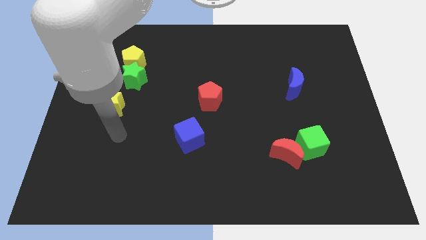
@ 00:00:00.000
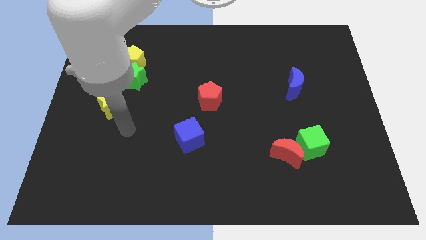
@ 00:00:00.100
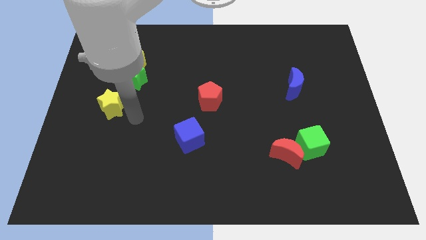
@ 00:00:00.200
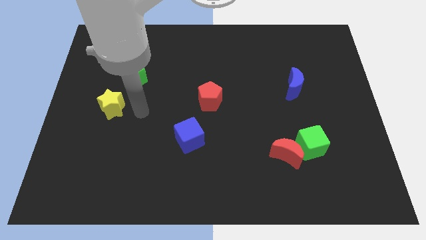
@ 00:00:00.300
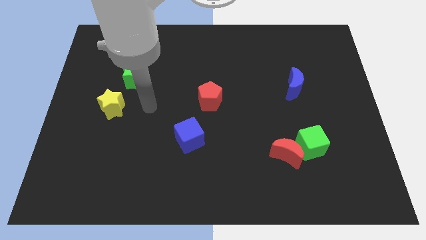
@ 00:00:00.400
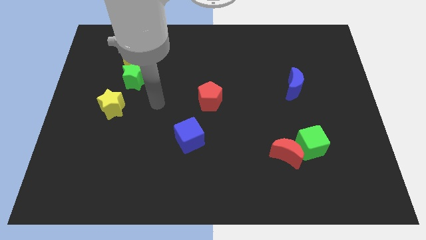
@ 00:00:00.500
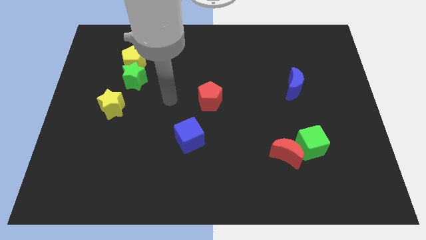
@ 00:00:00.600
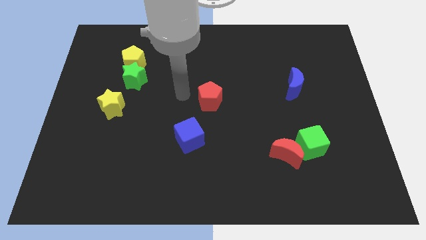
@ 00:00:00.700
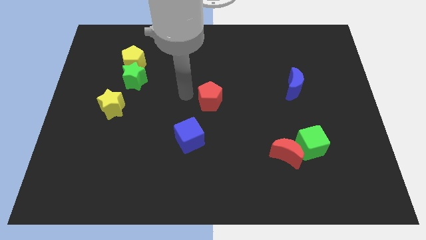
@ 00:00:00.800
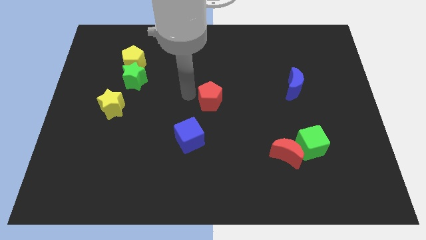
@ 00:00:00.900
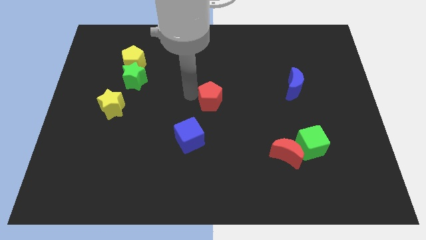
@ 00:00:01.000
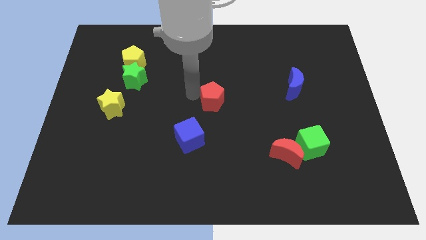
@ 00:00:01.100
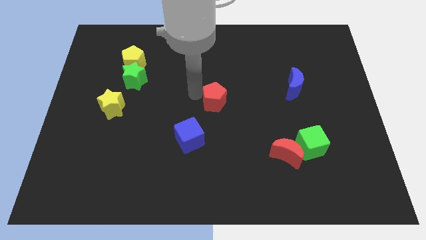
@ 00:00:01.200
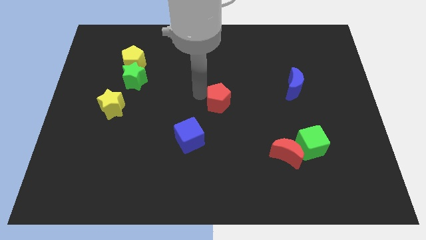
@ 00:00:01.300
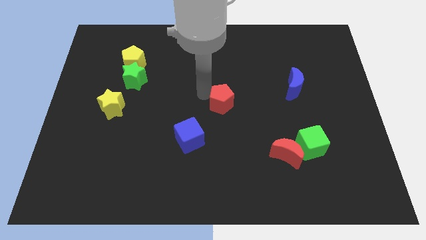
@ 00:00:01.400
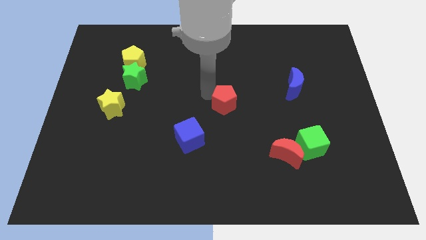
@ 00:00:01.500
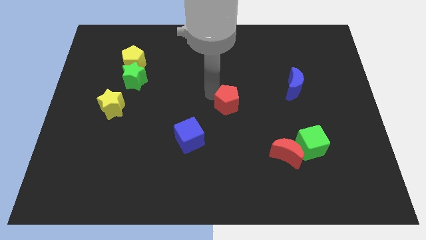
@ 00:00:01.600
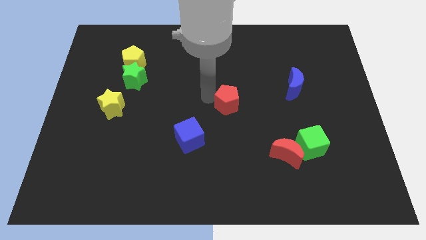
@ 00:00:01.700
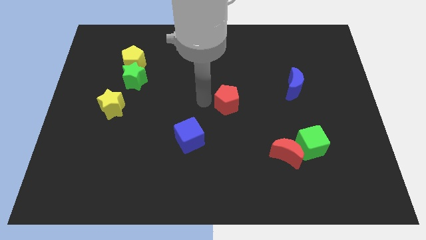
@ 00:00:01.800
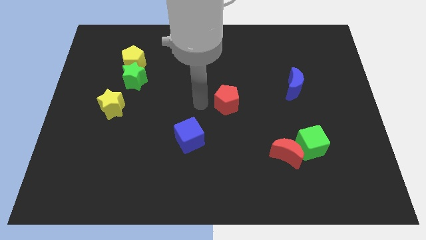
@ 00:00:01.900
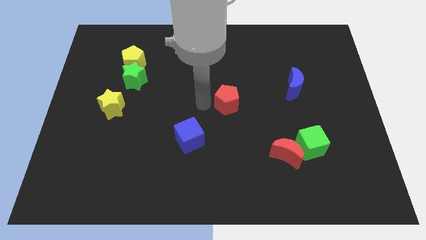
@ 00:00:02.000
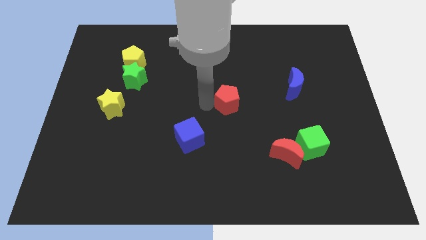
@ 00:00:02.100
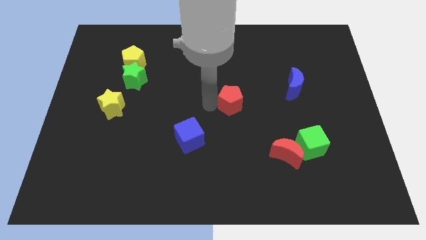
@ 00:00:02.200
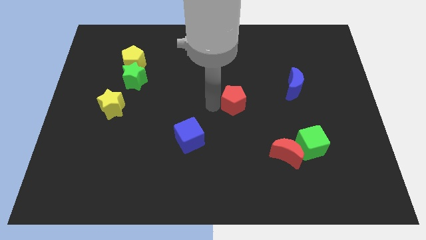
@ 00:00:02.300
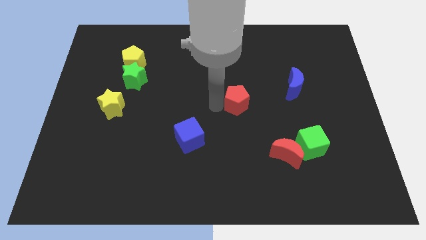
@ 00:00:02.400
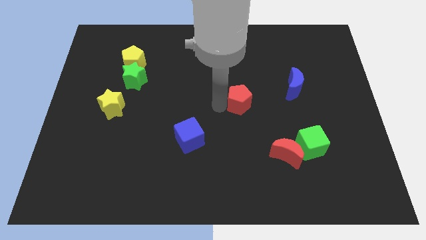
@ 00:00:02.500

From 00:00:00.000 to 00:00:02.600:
push the red pentagon a little bit to the right

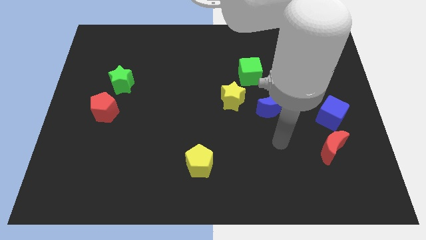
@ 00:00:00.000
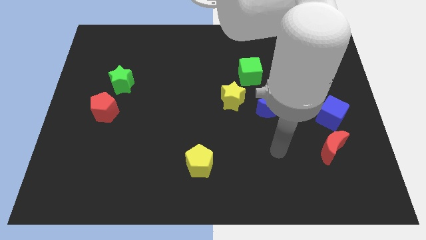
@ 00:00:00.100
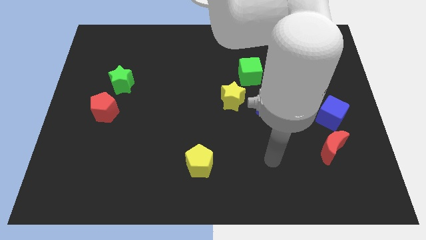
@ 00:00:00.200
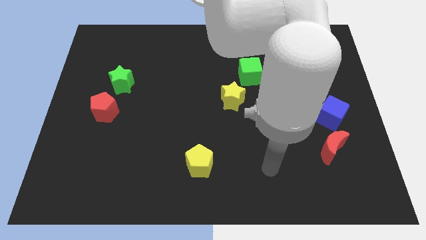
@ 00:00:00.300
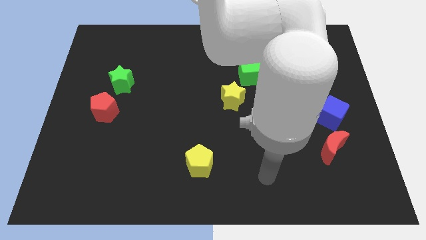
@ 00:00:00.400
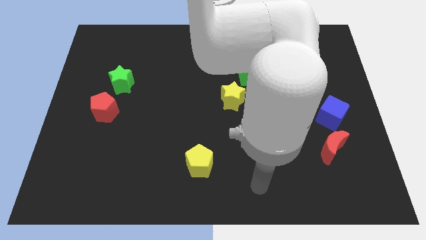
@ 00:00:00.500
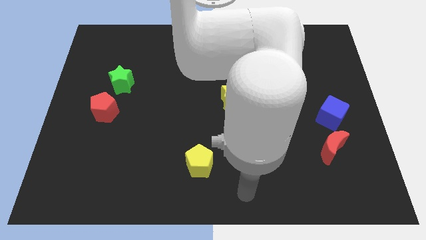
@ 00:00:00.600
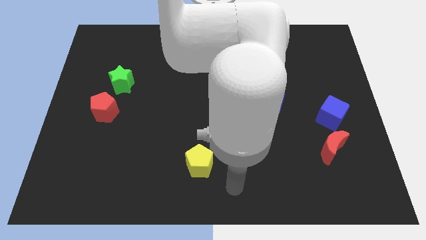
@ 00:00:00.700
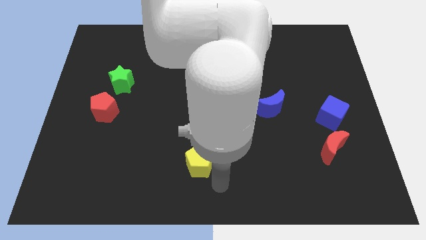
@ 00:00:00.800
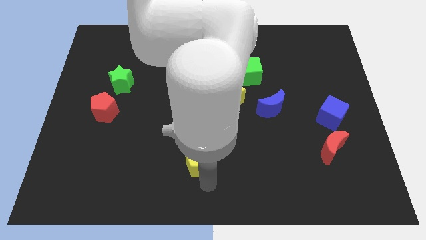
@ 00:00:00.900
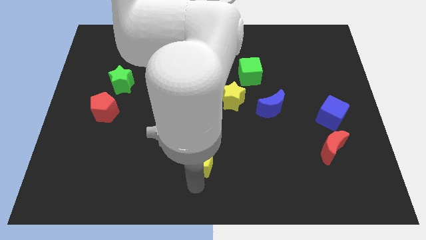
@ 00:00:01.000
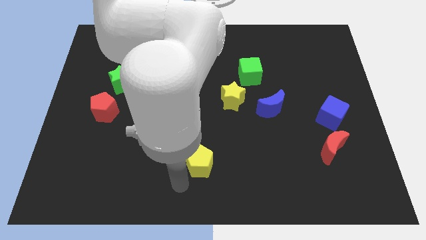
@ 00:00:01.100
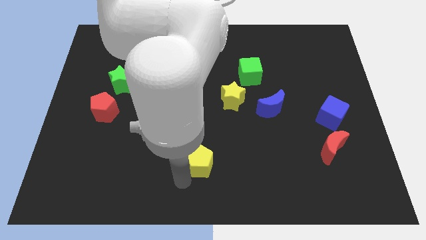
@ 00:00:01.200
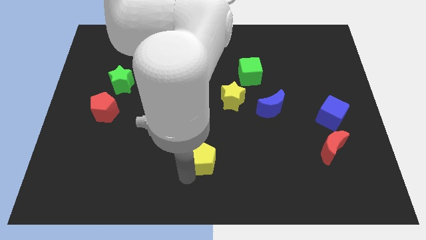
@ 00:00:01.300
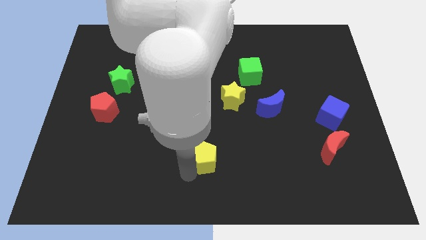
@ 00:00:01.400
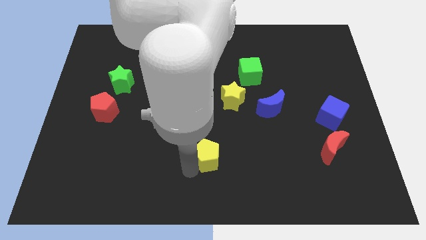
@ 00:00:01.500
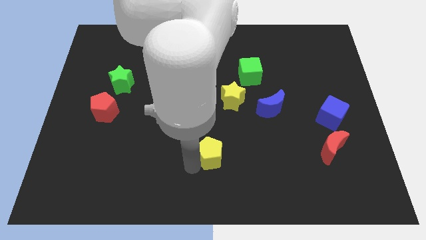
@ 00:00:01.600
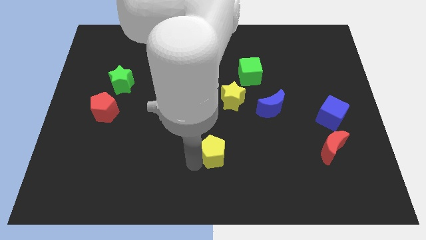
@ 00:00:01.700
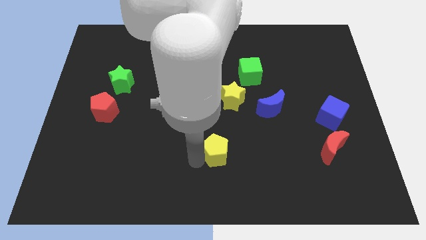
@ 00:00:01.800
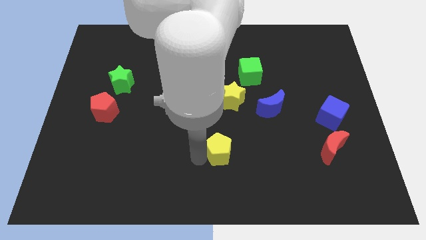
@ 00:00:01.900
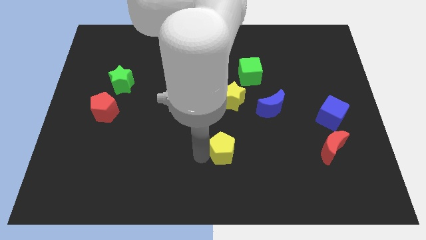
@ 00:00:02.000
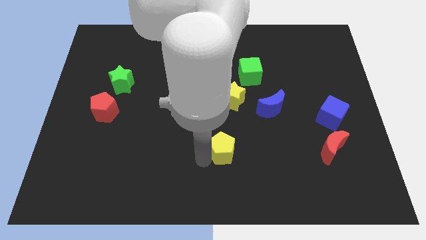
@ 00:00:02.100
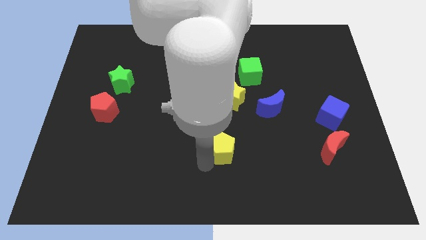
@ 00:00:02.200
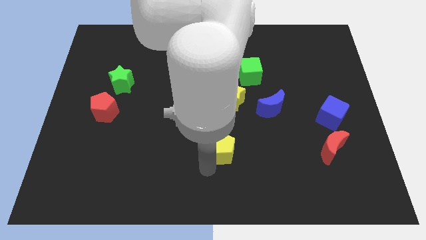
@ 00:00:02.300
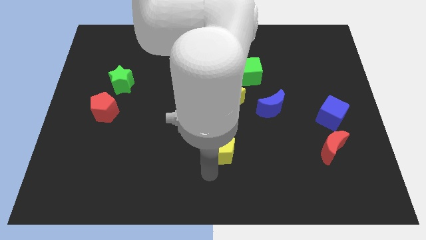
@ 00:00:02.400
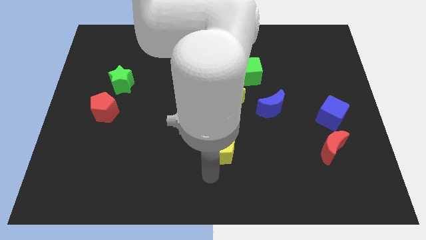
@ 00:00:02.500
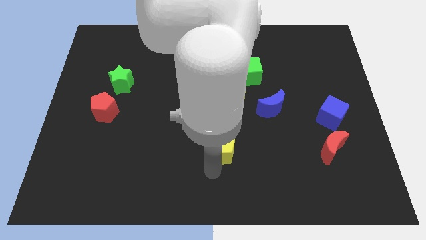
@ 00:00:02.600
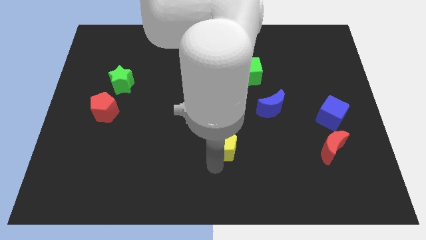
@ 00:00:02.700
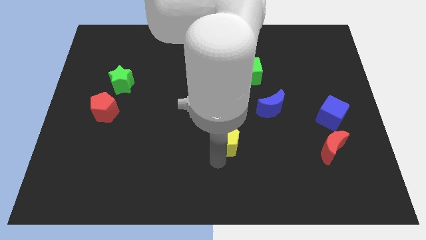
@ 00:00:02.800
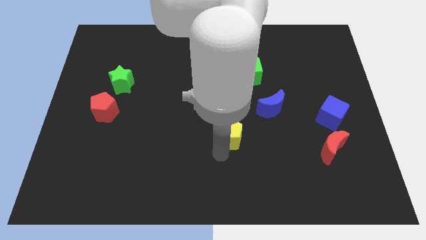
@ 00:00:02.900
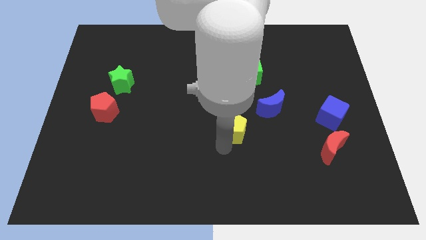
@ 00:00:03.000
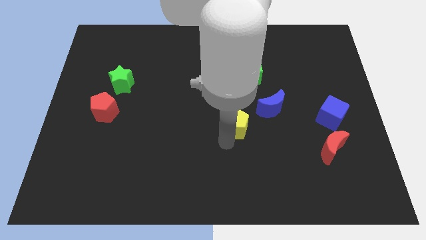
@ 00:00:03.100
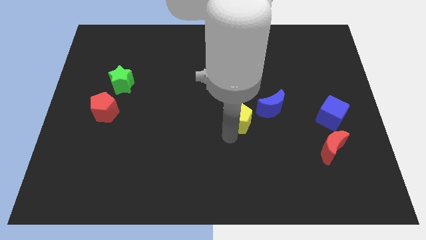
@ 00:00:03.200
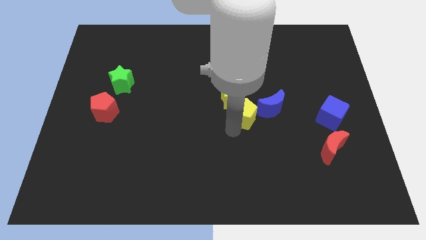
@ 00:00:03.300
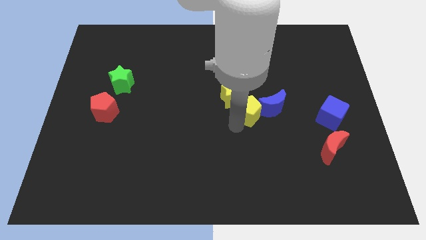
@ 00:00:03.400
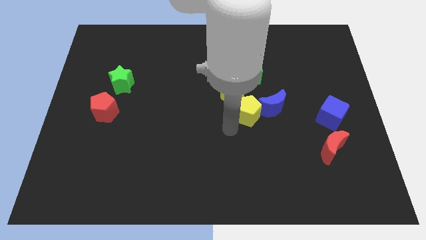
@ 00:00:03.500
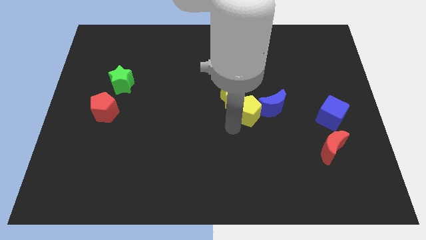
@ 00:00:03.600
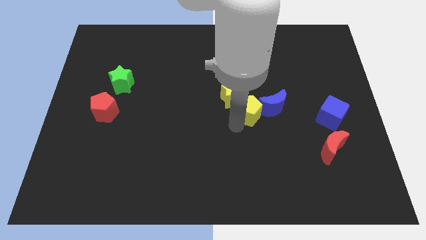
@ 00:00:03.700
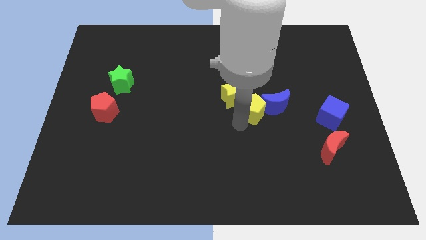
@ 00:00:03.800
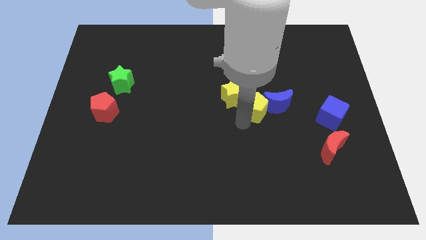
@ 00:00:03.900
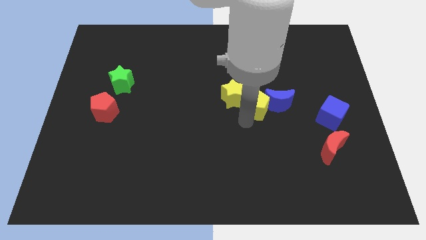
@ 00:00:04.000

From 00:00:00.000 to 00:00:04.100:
push the yellow pentagon upwards and then to the right

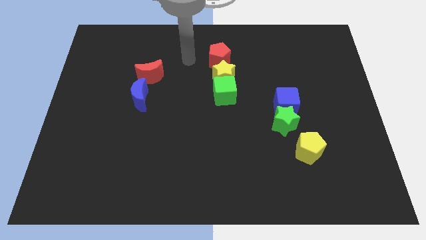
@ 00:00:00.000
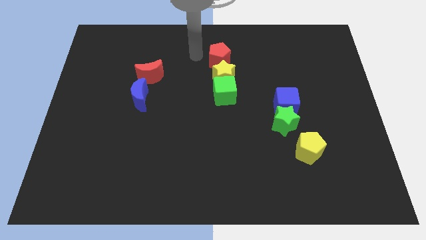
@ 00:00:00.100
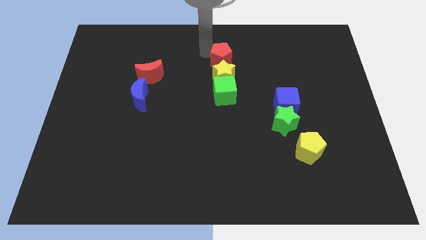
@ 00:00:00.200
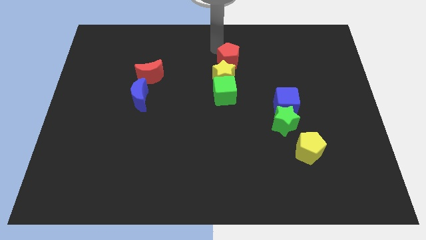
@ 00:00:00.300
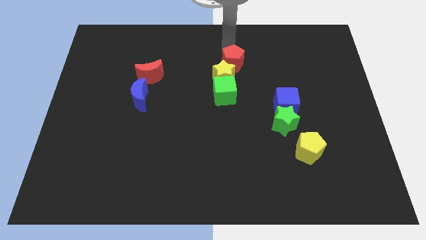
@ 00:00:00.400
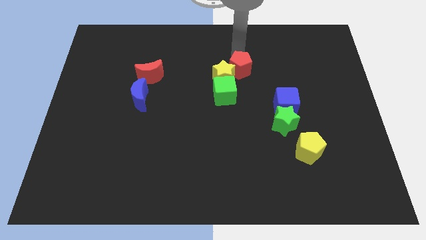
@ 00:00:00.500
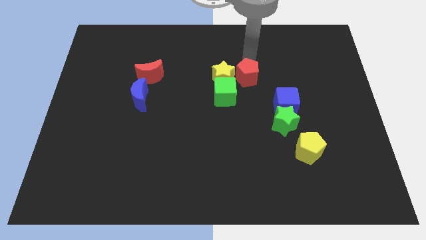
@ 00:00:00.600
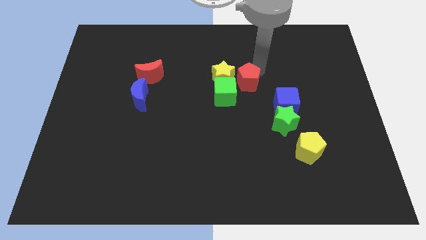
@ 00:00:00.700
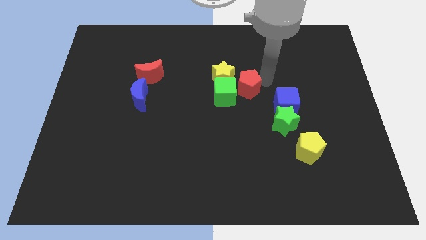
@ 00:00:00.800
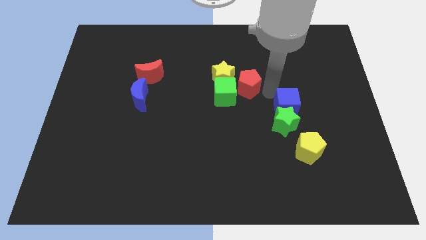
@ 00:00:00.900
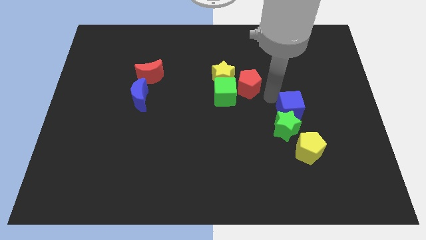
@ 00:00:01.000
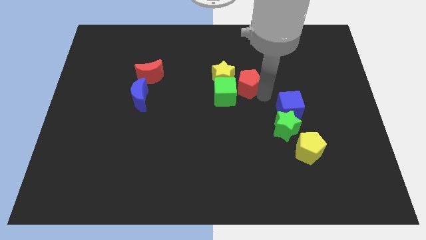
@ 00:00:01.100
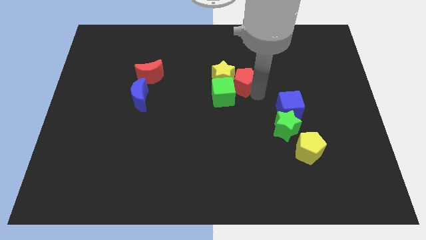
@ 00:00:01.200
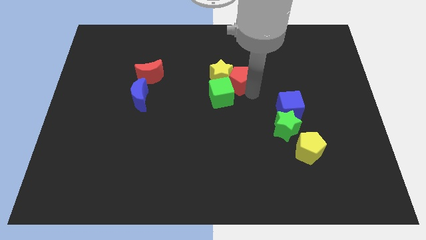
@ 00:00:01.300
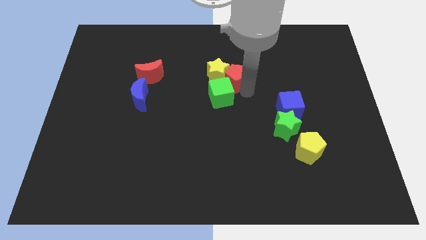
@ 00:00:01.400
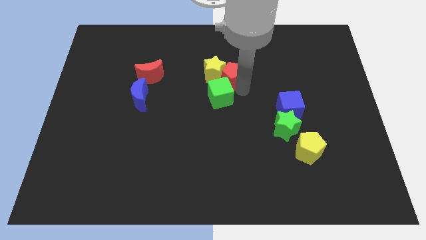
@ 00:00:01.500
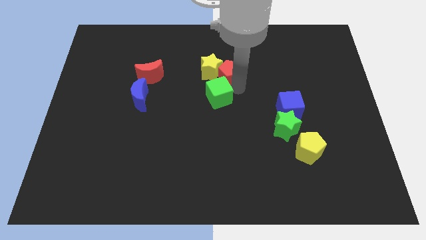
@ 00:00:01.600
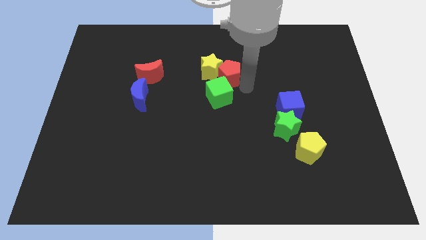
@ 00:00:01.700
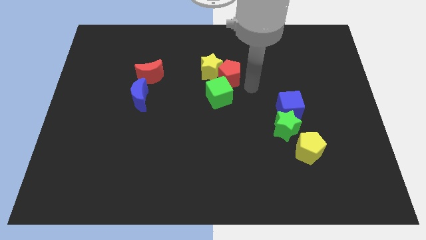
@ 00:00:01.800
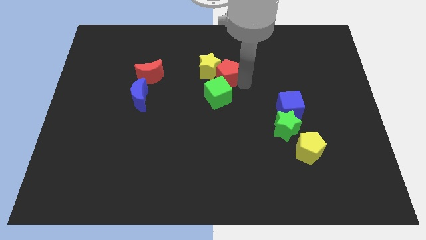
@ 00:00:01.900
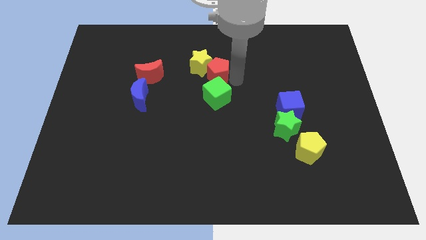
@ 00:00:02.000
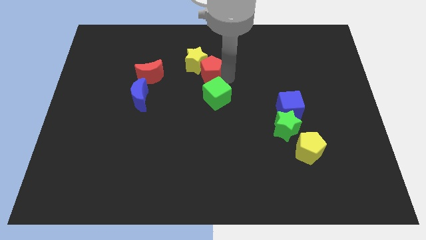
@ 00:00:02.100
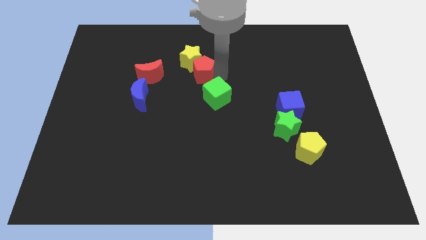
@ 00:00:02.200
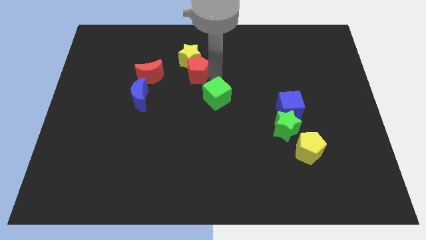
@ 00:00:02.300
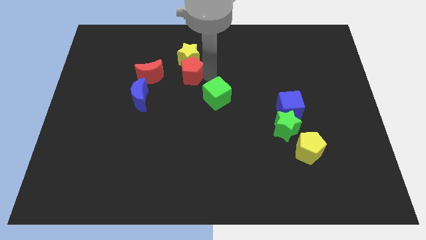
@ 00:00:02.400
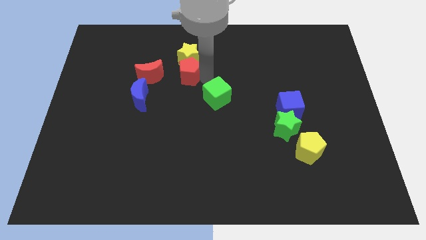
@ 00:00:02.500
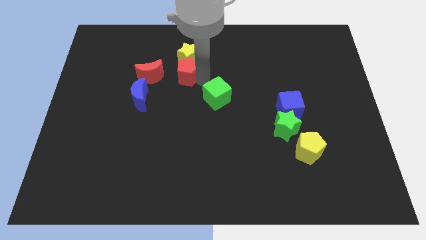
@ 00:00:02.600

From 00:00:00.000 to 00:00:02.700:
move the red pentagon left a little bit
